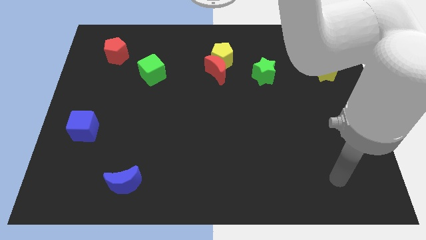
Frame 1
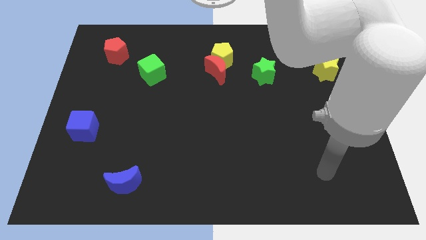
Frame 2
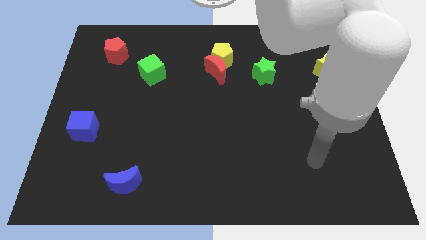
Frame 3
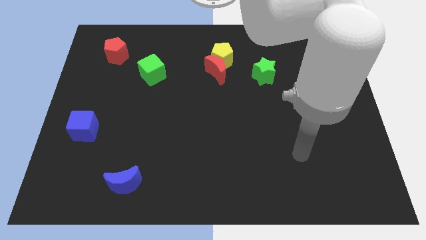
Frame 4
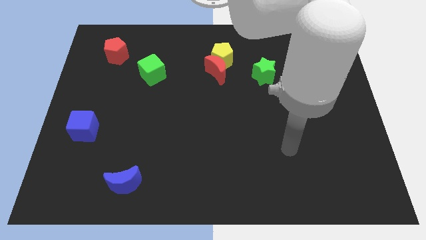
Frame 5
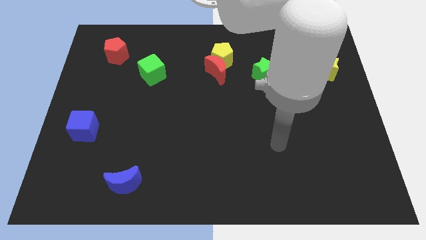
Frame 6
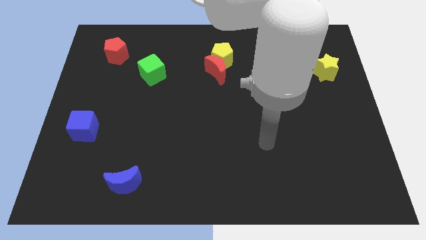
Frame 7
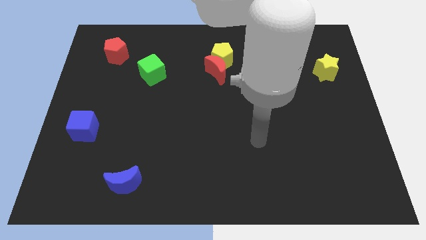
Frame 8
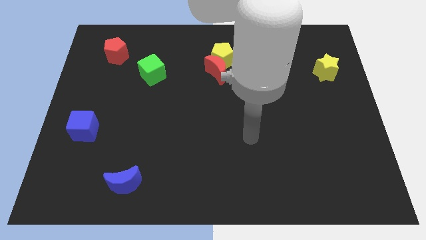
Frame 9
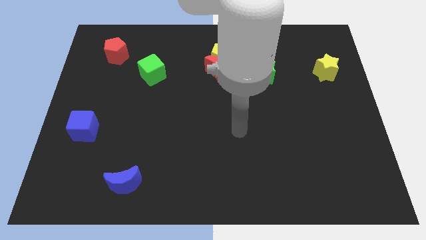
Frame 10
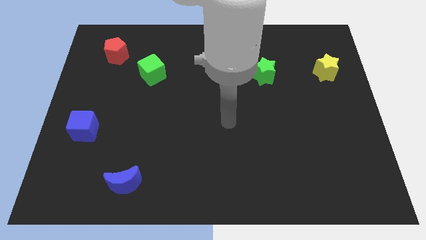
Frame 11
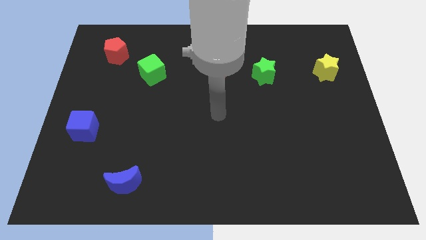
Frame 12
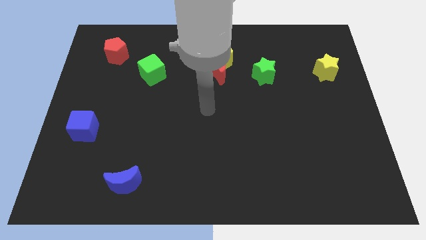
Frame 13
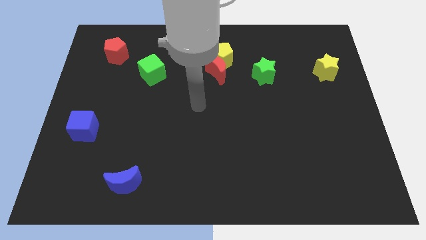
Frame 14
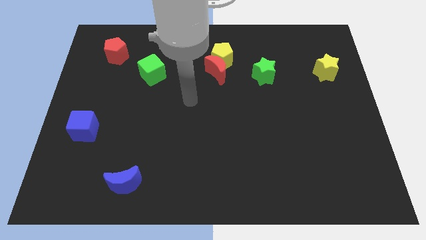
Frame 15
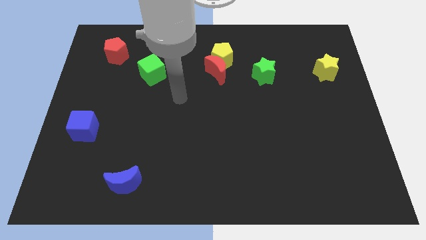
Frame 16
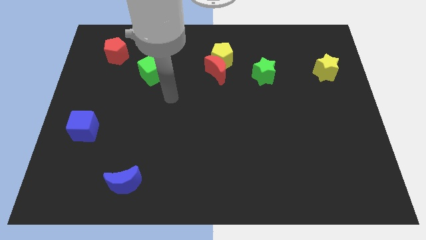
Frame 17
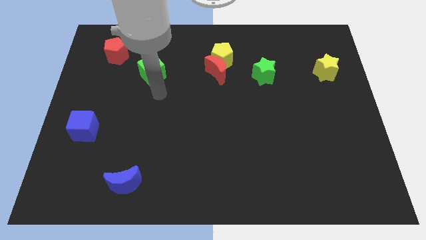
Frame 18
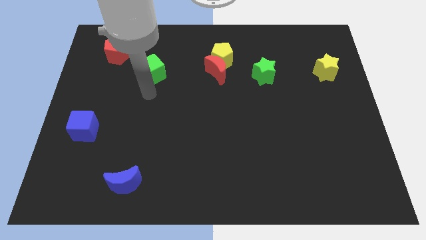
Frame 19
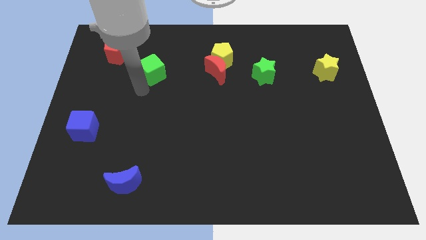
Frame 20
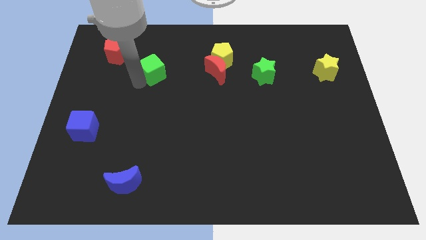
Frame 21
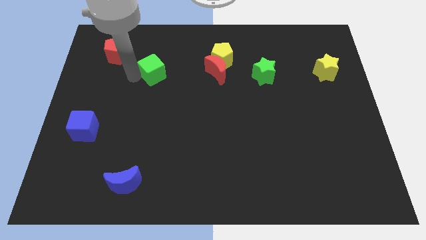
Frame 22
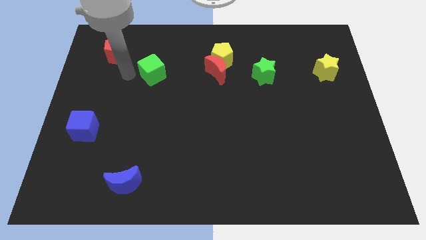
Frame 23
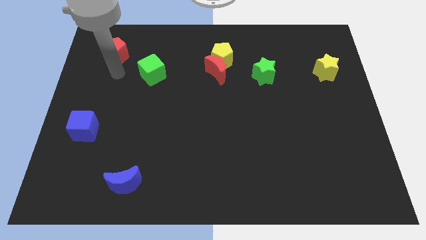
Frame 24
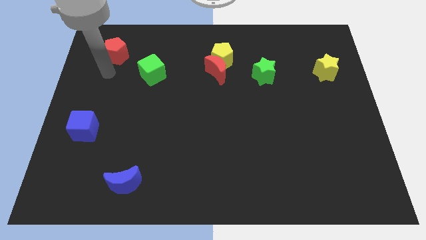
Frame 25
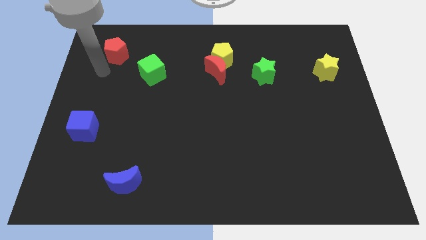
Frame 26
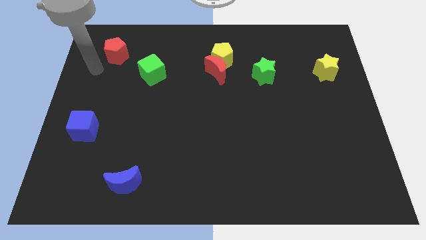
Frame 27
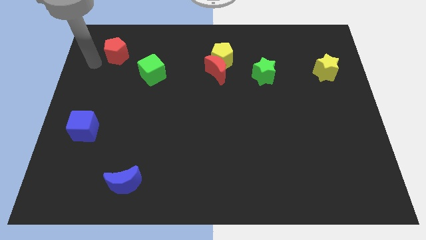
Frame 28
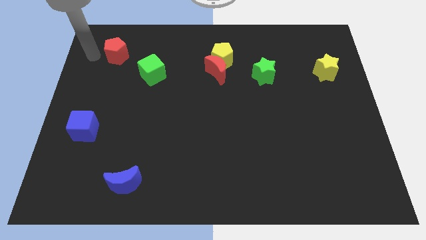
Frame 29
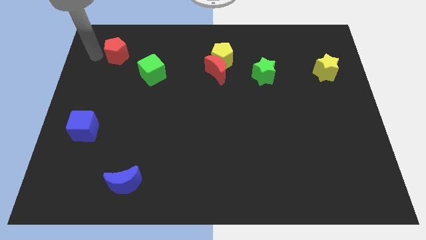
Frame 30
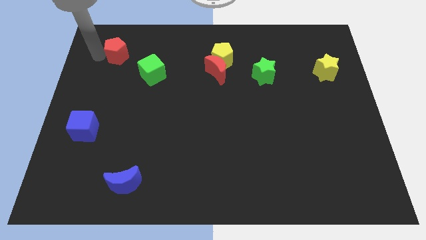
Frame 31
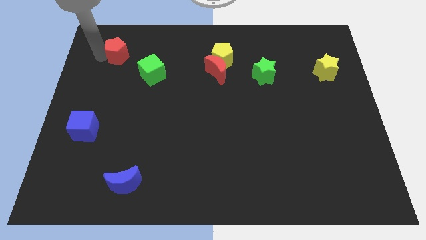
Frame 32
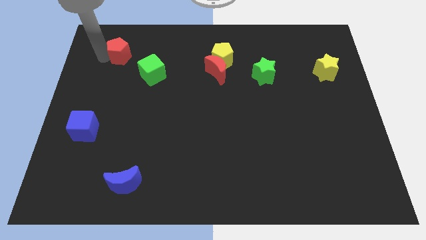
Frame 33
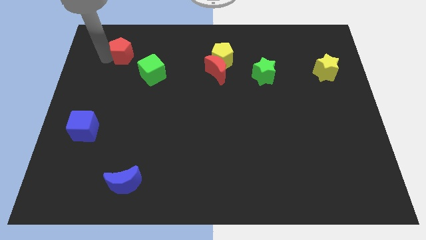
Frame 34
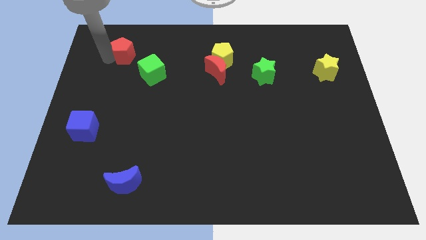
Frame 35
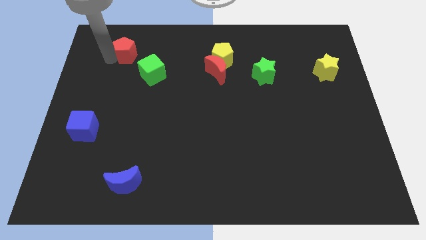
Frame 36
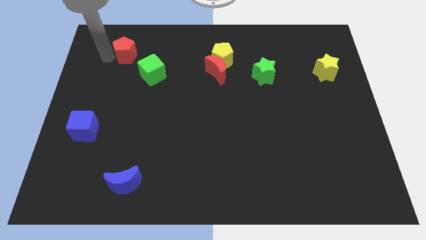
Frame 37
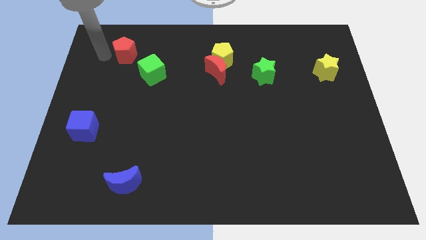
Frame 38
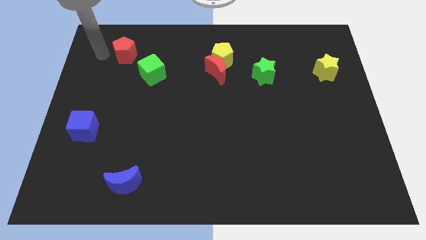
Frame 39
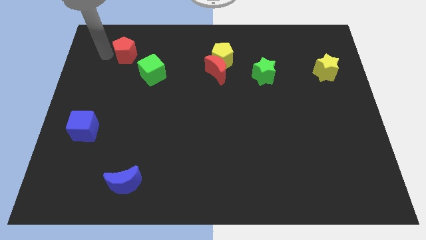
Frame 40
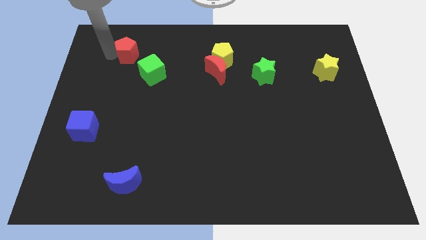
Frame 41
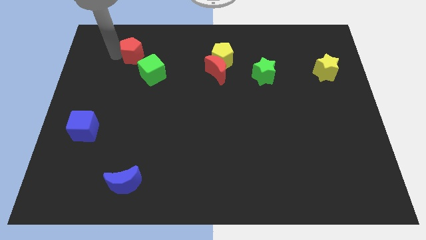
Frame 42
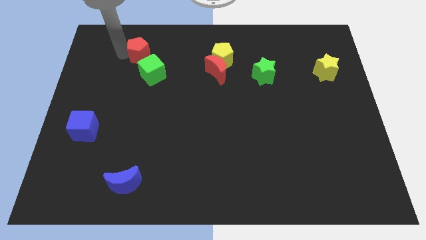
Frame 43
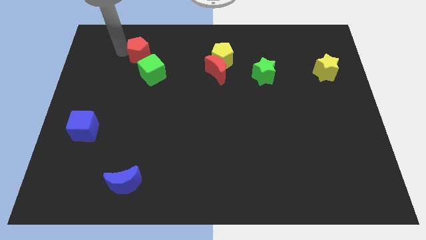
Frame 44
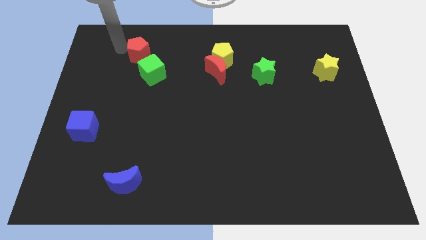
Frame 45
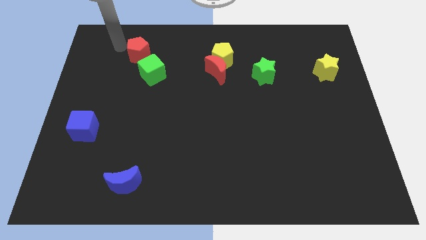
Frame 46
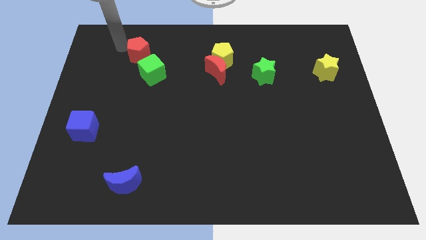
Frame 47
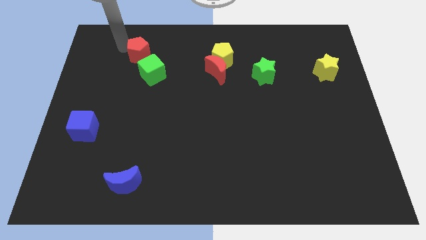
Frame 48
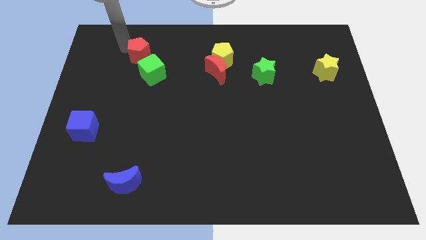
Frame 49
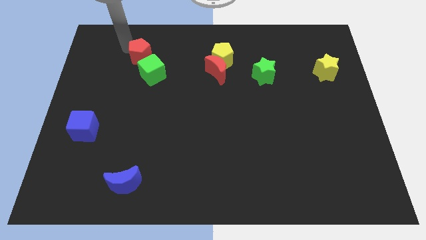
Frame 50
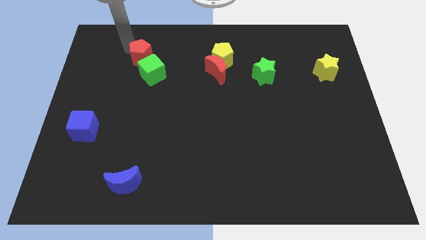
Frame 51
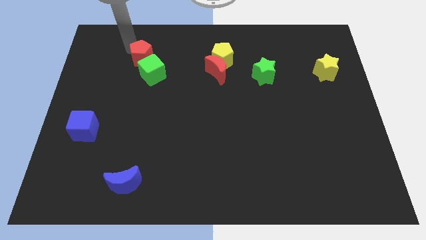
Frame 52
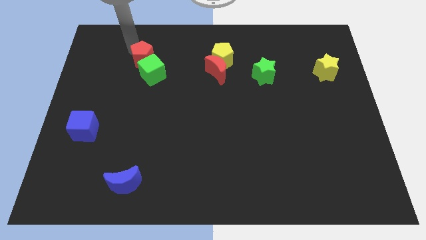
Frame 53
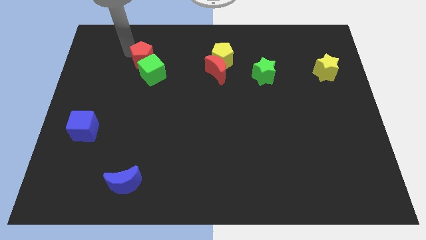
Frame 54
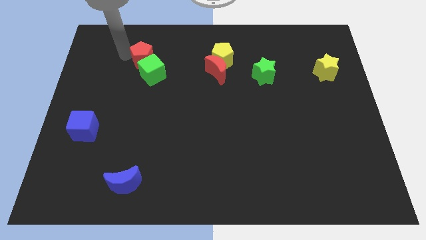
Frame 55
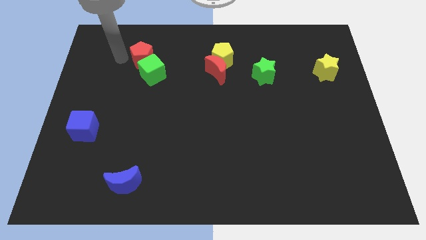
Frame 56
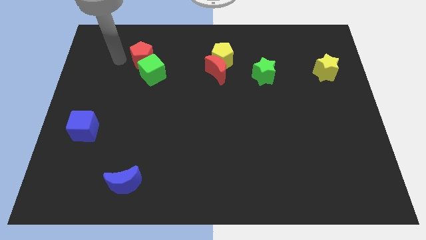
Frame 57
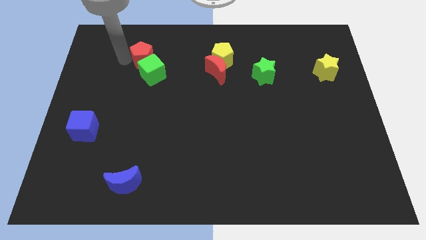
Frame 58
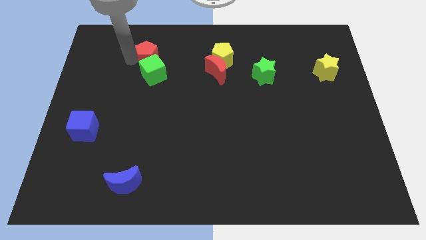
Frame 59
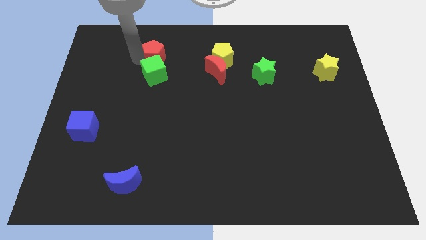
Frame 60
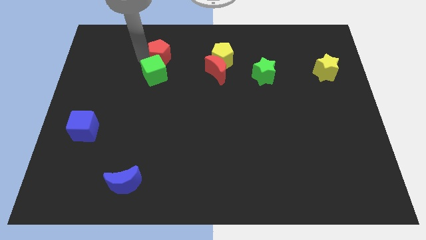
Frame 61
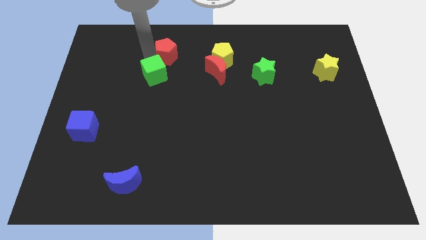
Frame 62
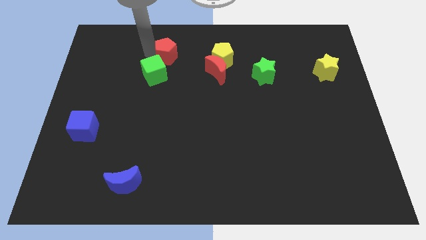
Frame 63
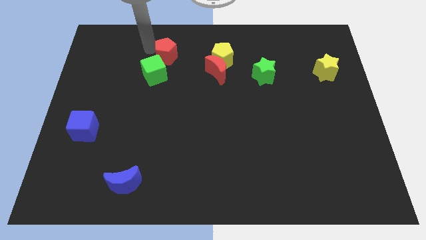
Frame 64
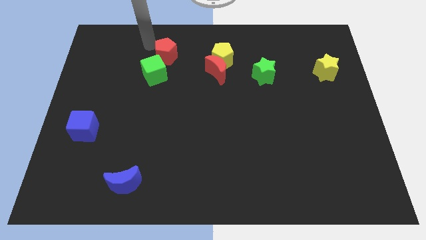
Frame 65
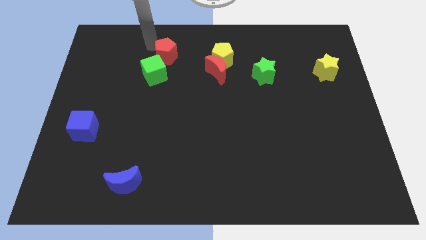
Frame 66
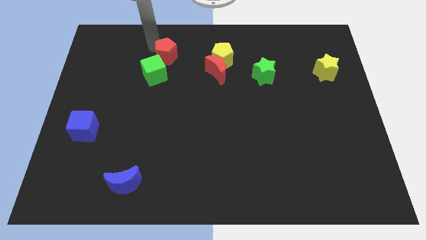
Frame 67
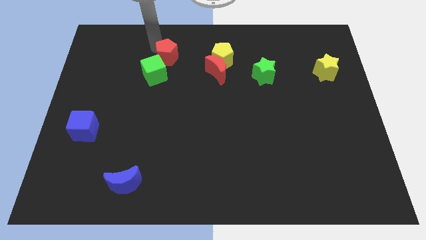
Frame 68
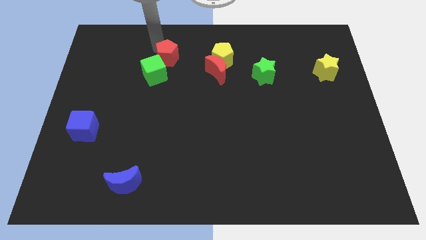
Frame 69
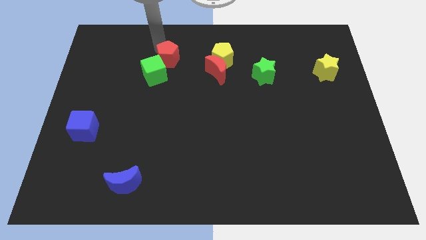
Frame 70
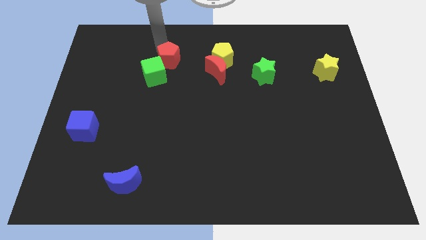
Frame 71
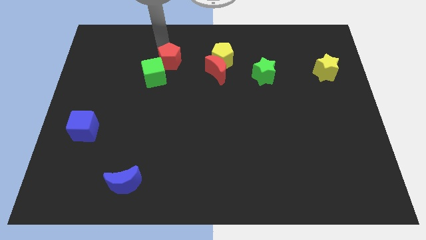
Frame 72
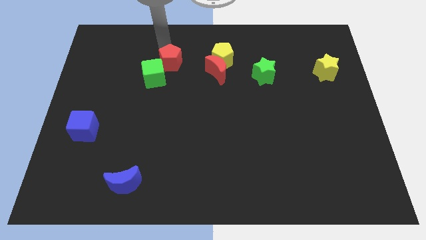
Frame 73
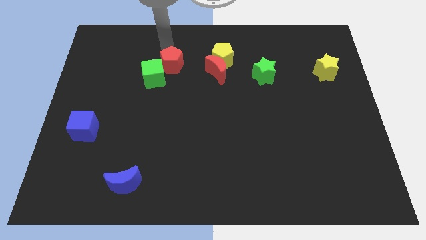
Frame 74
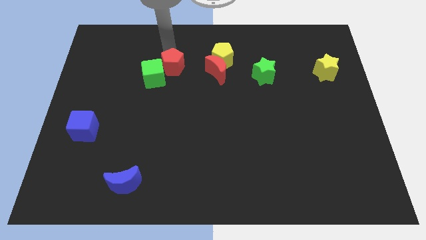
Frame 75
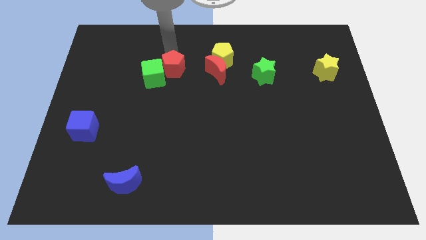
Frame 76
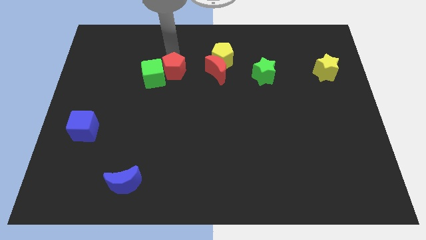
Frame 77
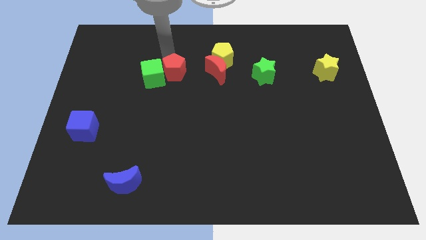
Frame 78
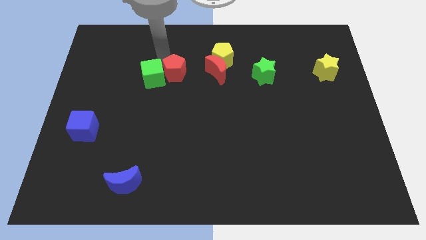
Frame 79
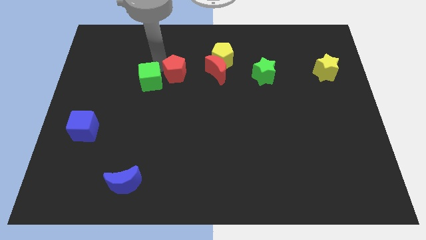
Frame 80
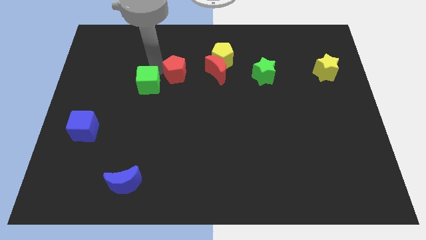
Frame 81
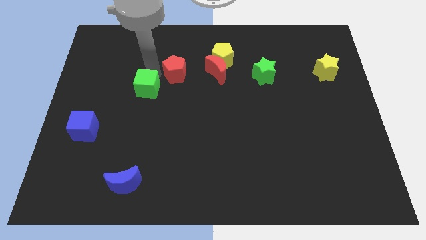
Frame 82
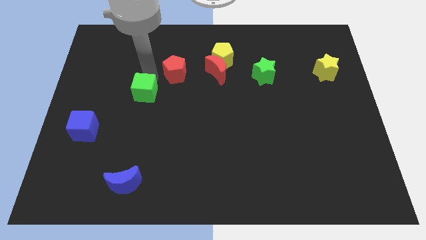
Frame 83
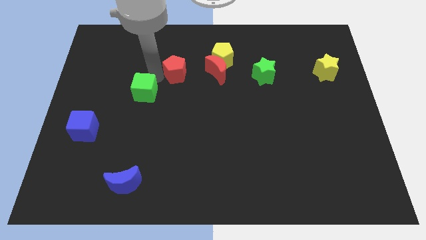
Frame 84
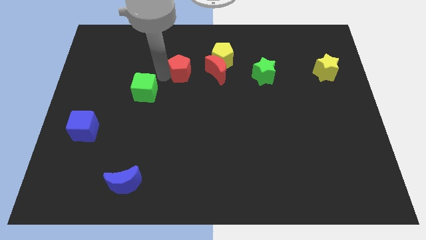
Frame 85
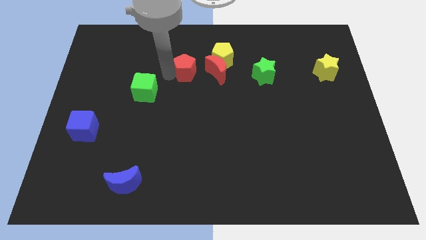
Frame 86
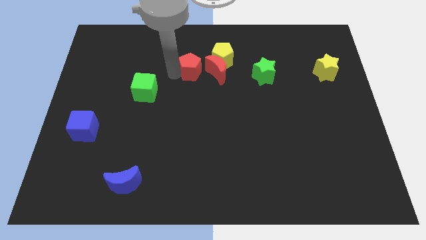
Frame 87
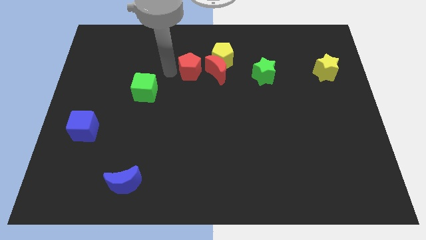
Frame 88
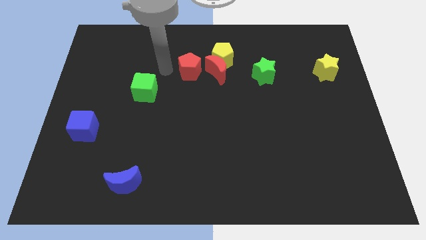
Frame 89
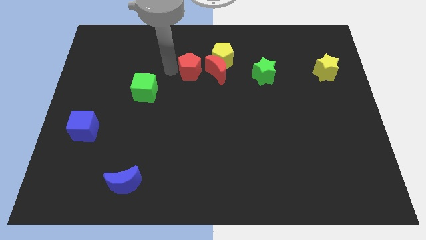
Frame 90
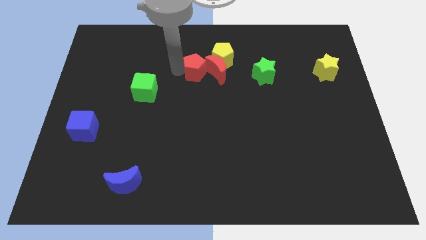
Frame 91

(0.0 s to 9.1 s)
push the red pentagon close to the red moon
